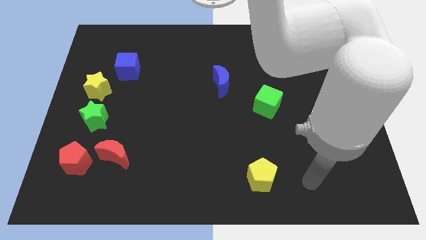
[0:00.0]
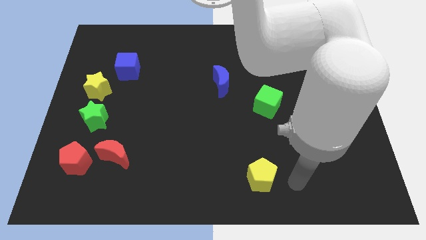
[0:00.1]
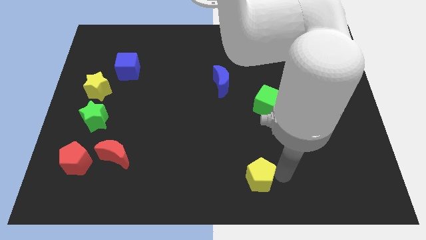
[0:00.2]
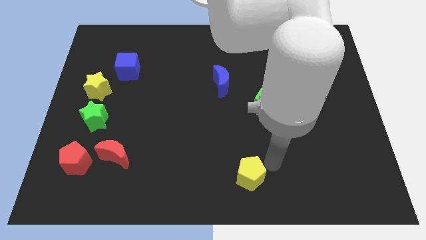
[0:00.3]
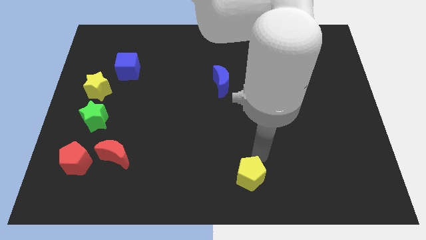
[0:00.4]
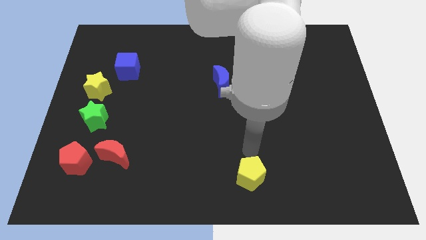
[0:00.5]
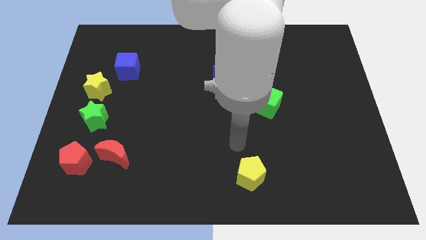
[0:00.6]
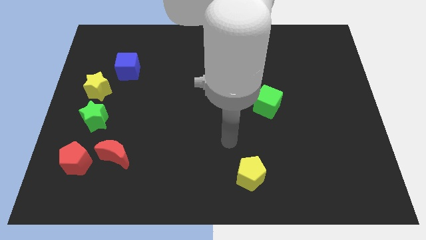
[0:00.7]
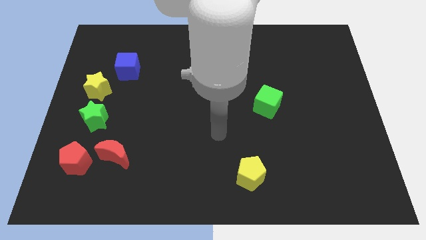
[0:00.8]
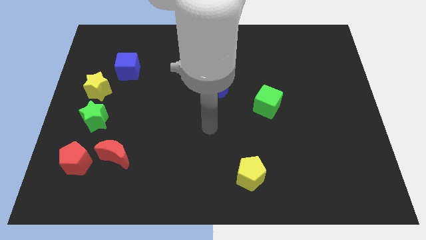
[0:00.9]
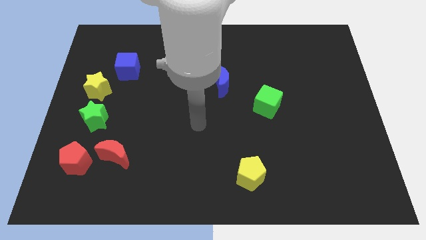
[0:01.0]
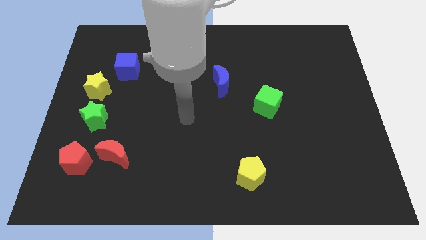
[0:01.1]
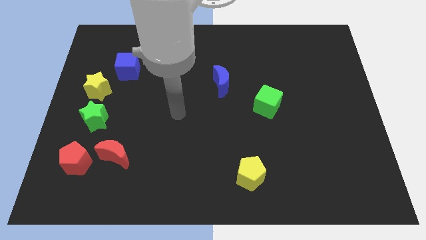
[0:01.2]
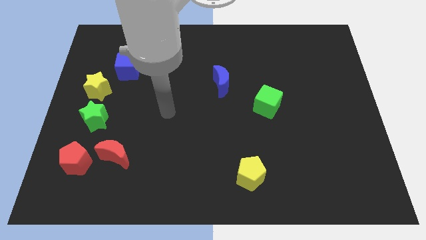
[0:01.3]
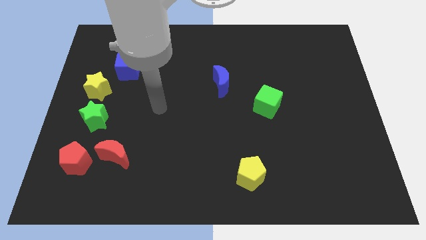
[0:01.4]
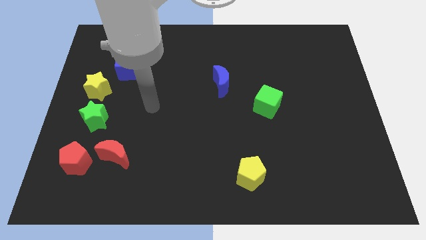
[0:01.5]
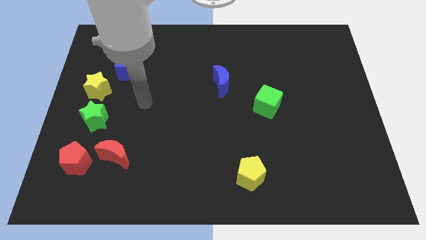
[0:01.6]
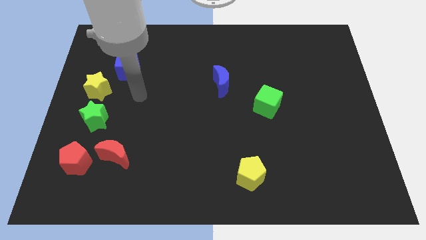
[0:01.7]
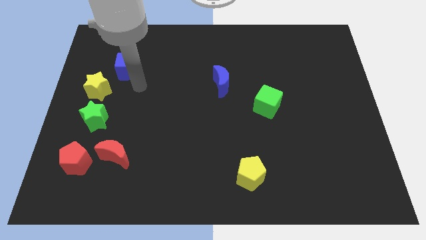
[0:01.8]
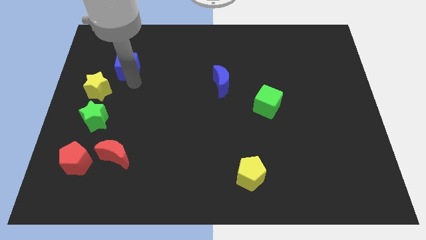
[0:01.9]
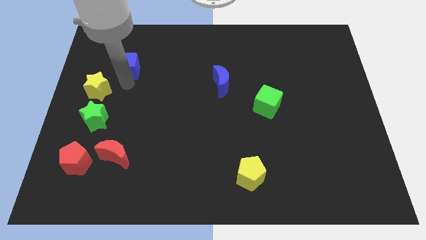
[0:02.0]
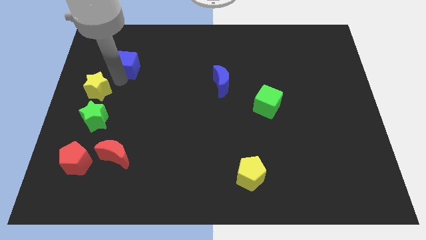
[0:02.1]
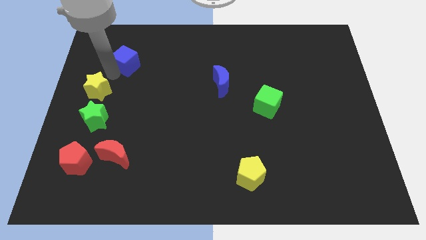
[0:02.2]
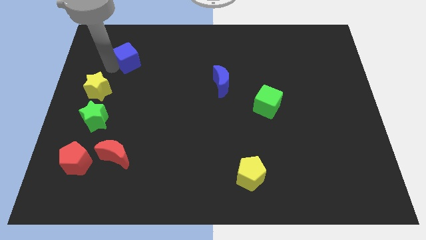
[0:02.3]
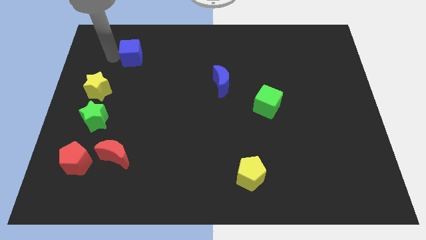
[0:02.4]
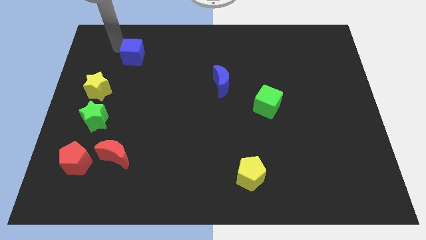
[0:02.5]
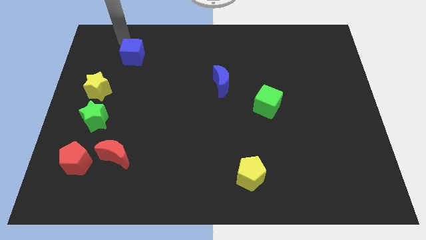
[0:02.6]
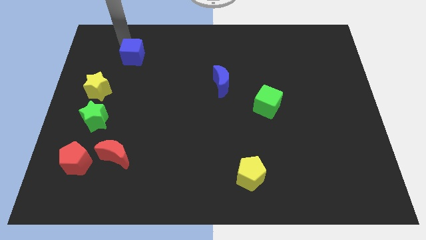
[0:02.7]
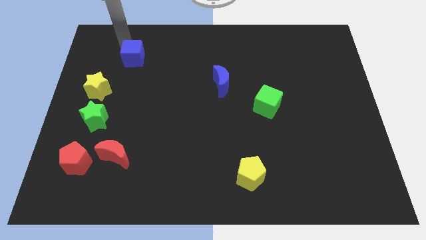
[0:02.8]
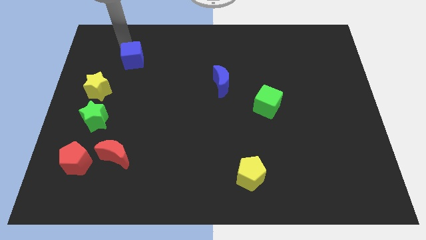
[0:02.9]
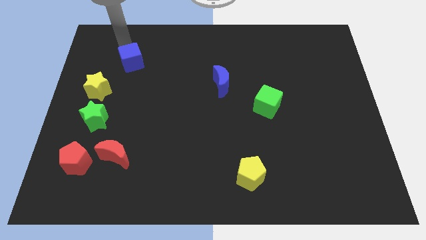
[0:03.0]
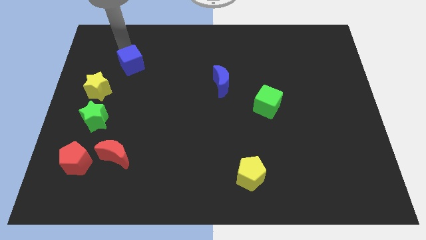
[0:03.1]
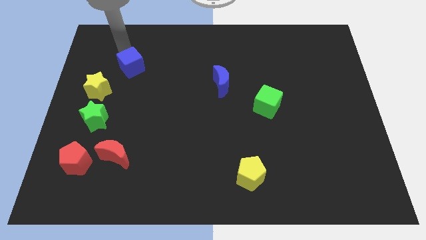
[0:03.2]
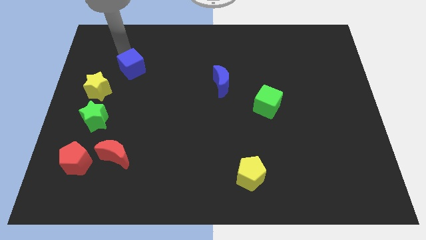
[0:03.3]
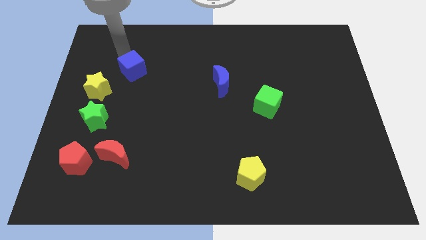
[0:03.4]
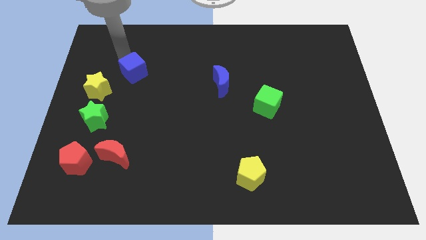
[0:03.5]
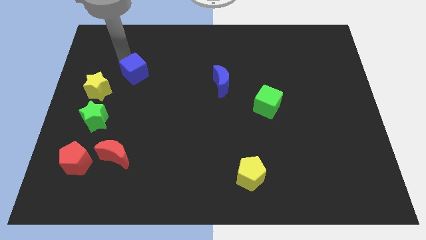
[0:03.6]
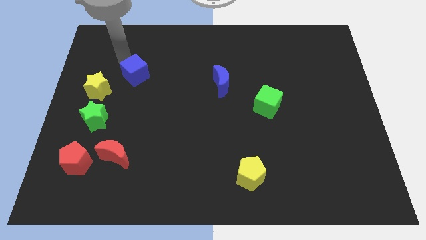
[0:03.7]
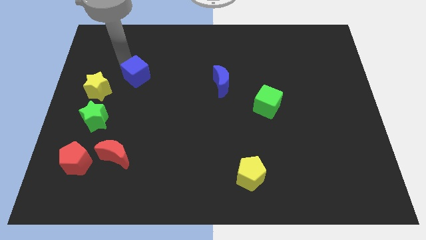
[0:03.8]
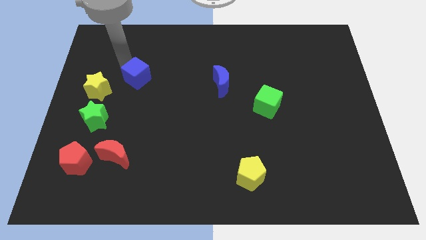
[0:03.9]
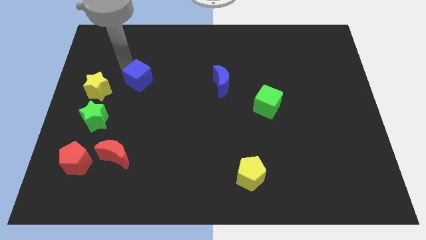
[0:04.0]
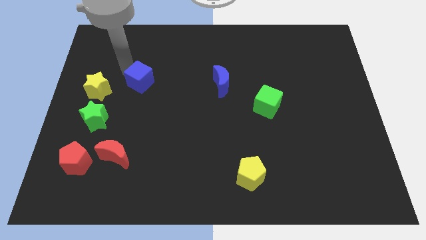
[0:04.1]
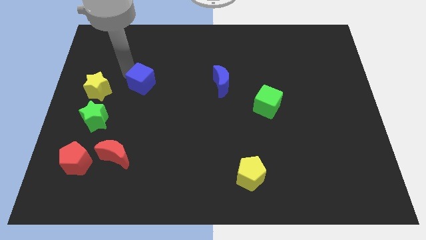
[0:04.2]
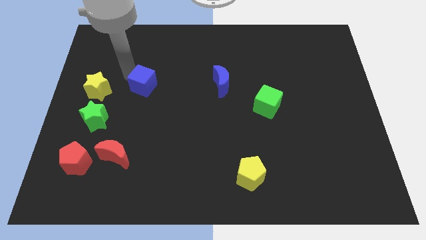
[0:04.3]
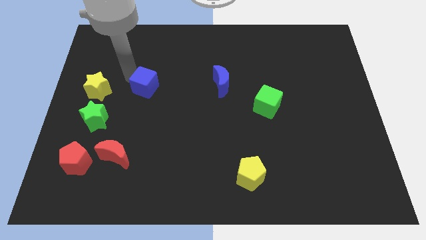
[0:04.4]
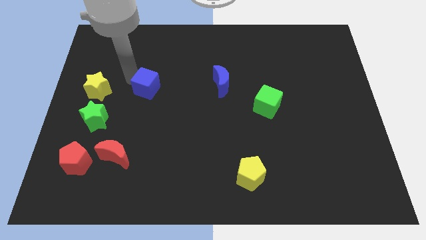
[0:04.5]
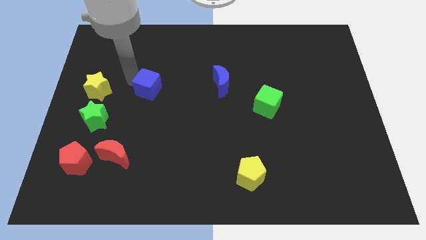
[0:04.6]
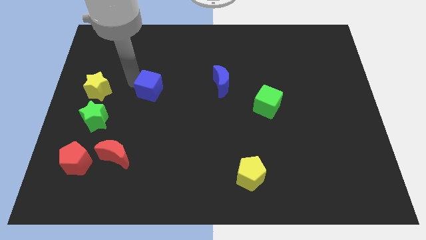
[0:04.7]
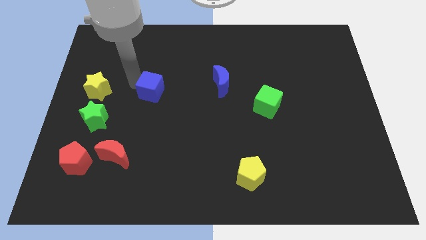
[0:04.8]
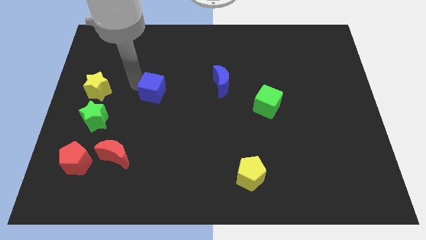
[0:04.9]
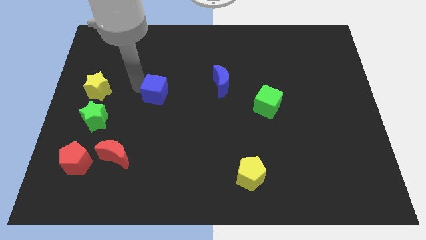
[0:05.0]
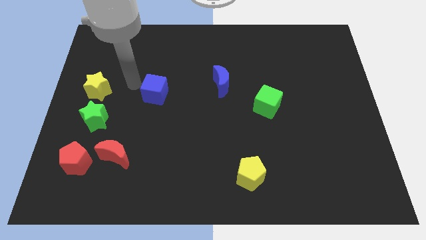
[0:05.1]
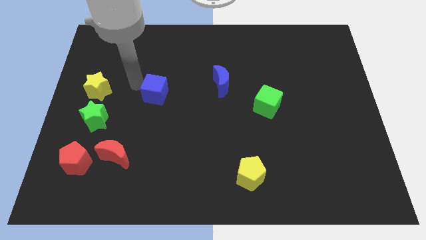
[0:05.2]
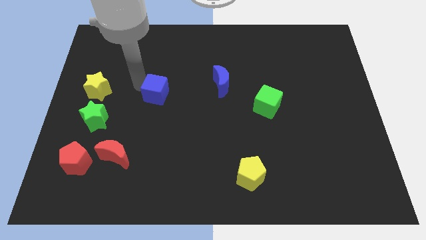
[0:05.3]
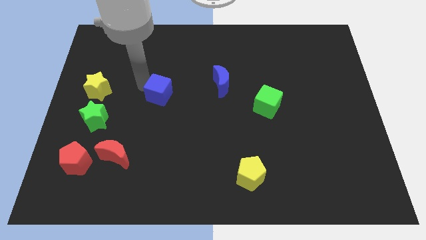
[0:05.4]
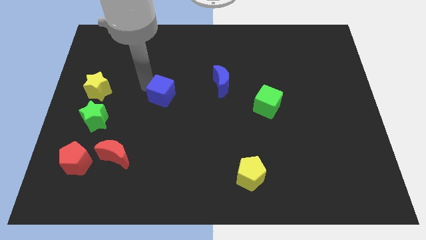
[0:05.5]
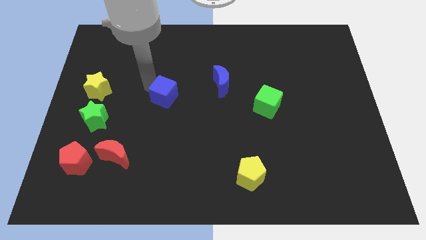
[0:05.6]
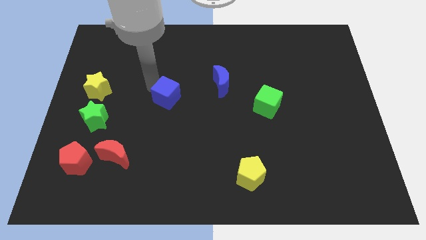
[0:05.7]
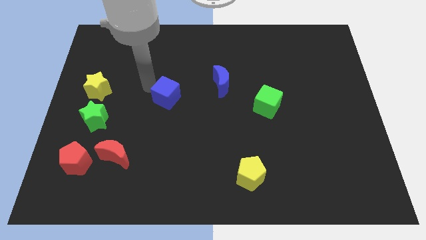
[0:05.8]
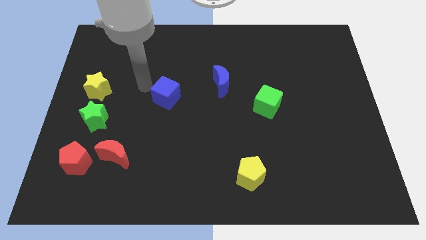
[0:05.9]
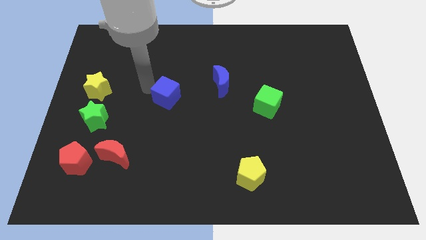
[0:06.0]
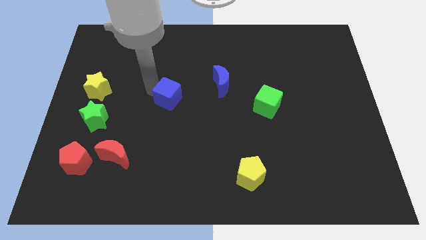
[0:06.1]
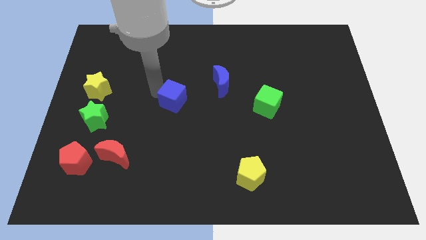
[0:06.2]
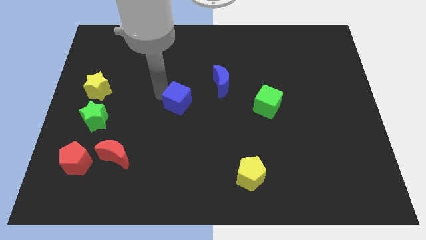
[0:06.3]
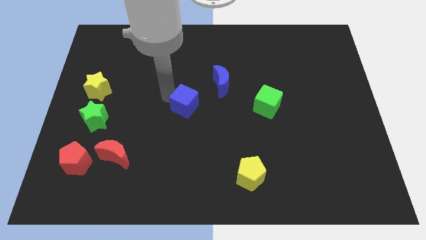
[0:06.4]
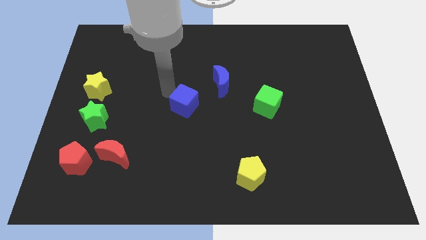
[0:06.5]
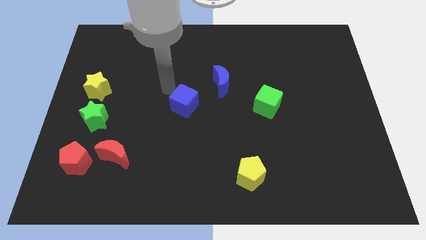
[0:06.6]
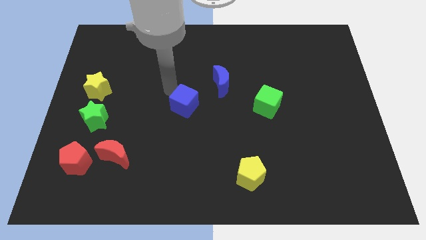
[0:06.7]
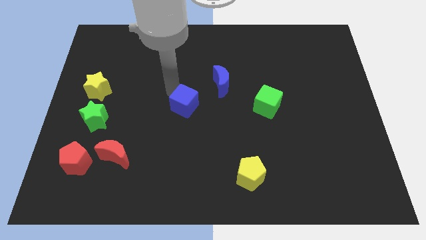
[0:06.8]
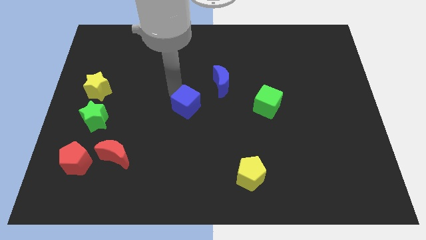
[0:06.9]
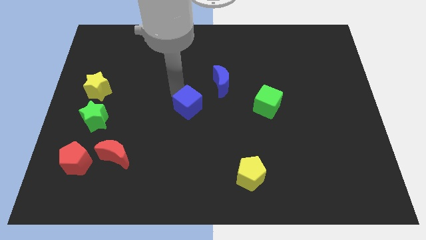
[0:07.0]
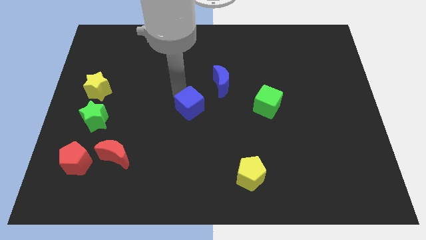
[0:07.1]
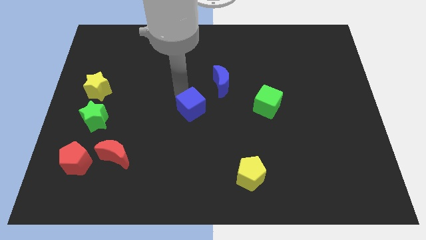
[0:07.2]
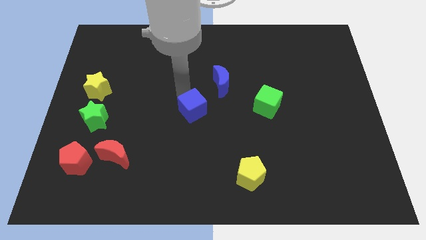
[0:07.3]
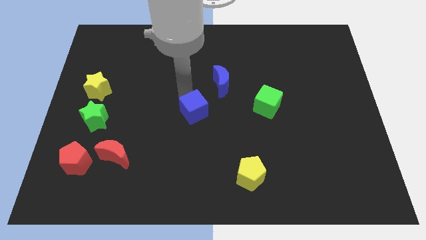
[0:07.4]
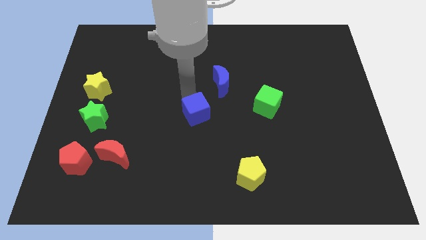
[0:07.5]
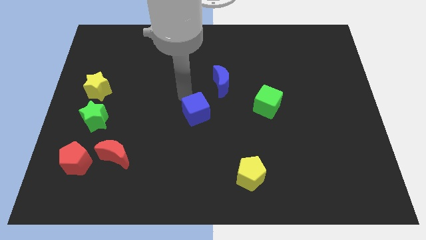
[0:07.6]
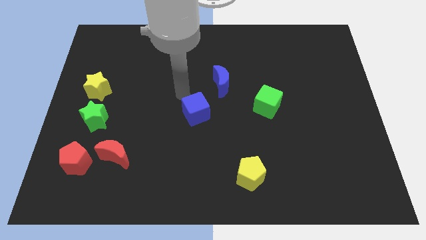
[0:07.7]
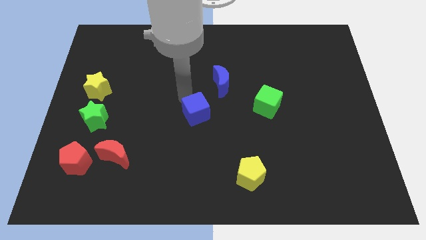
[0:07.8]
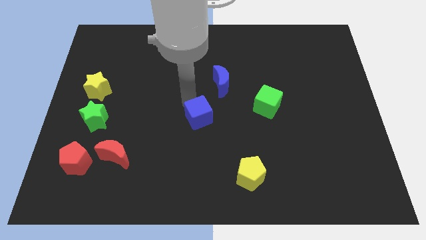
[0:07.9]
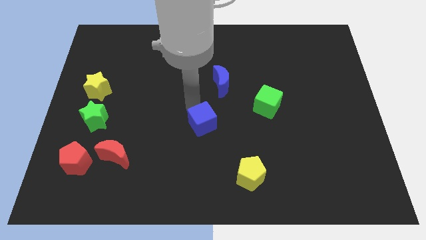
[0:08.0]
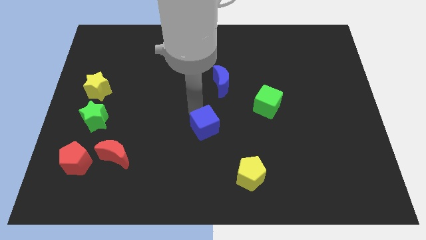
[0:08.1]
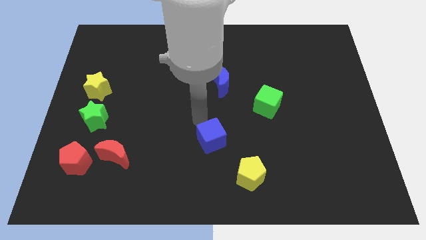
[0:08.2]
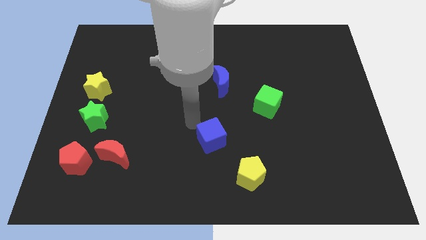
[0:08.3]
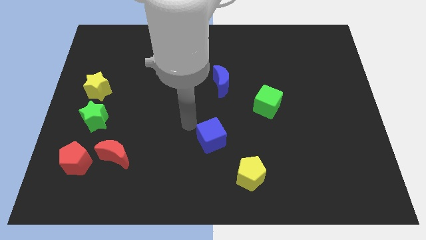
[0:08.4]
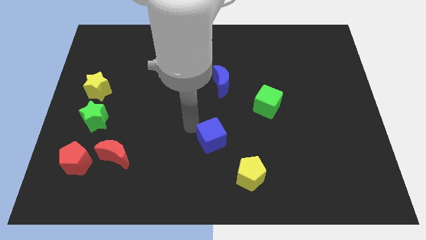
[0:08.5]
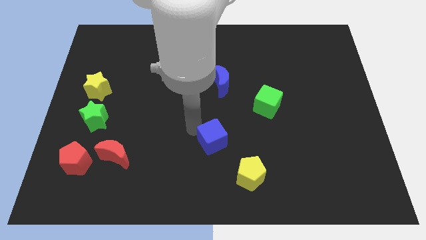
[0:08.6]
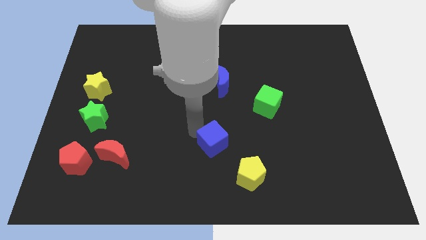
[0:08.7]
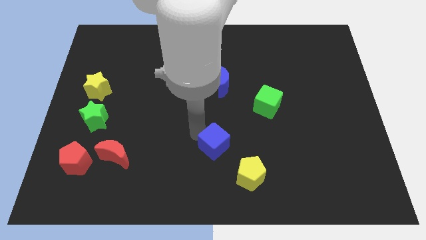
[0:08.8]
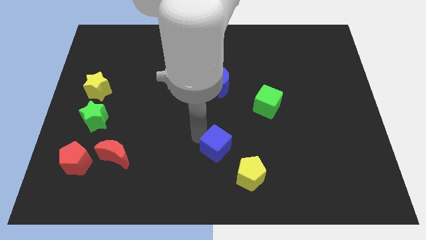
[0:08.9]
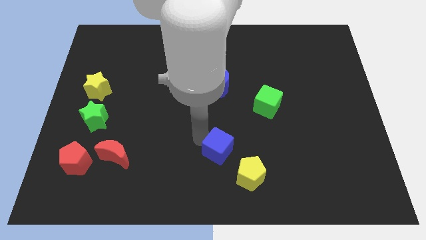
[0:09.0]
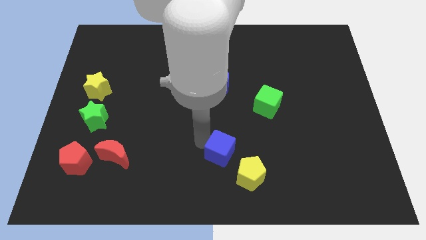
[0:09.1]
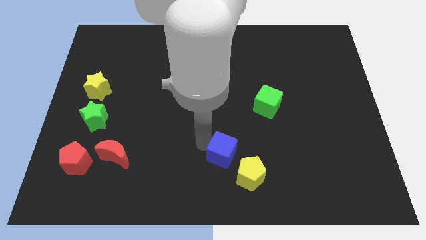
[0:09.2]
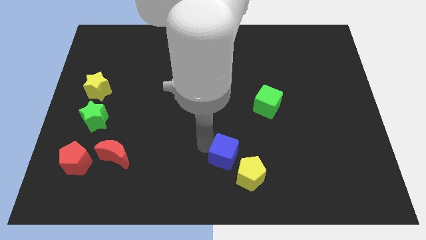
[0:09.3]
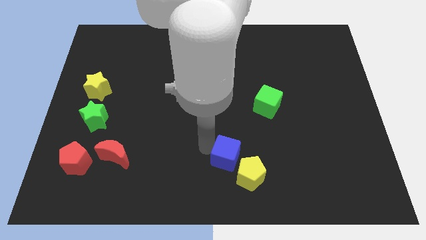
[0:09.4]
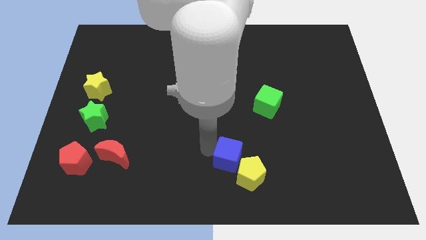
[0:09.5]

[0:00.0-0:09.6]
slide the blue cube towards the yellow pentagon
